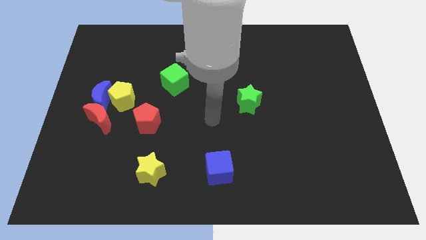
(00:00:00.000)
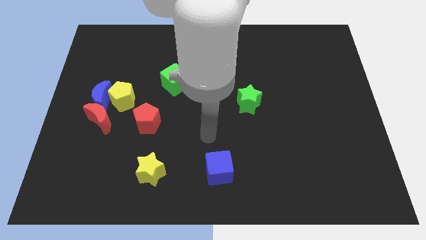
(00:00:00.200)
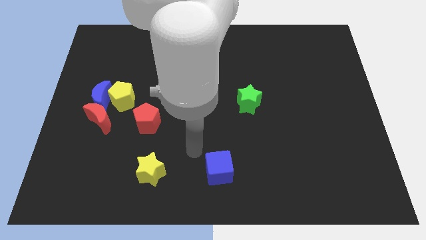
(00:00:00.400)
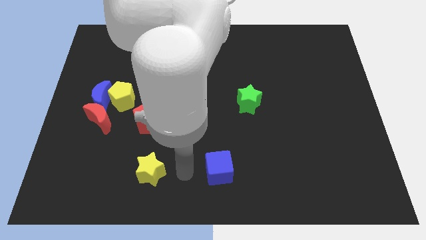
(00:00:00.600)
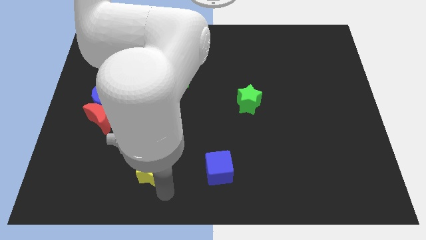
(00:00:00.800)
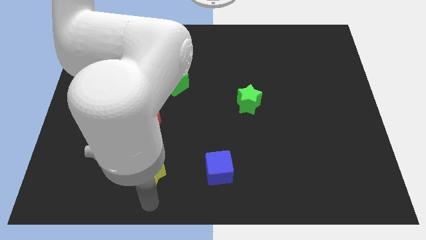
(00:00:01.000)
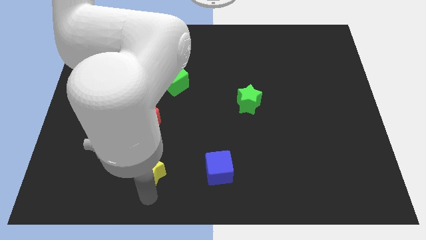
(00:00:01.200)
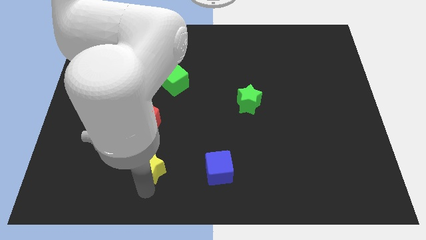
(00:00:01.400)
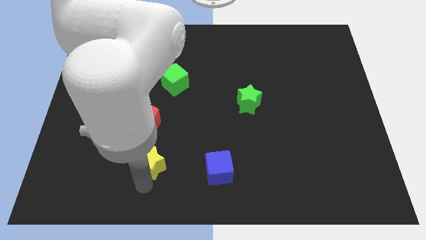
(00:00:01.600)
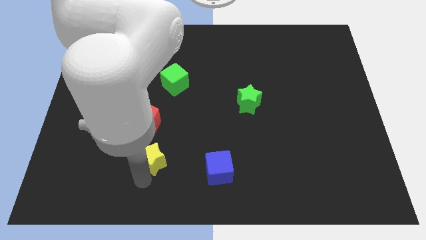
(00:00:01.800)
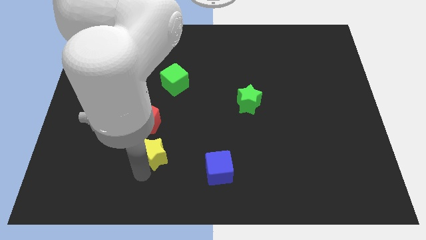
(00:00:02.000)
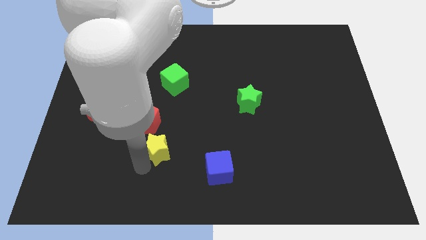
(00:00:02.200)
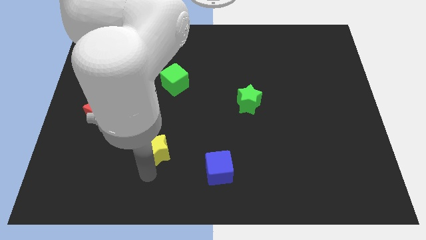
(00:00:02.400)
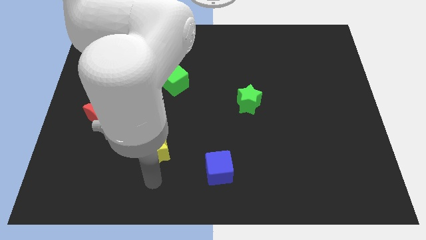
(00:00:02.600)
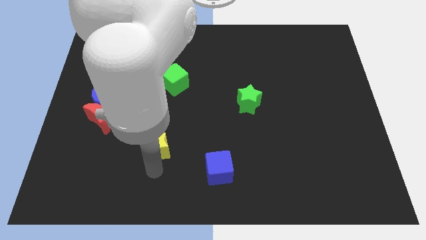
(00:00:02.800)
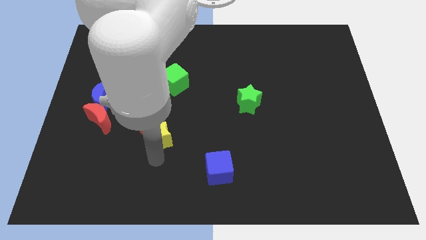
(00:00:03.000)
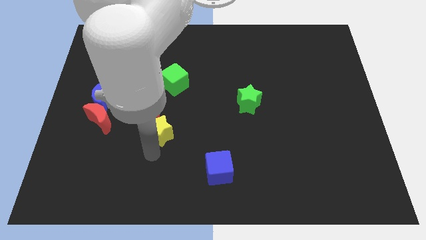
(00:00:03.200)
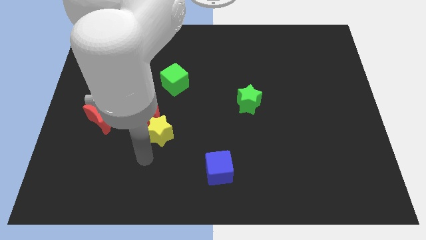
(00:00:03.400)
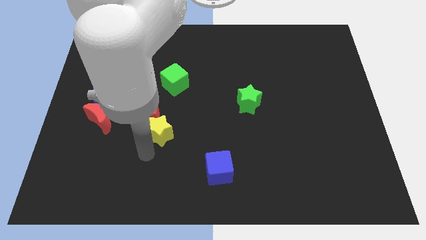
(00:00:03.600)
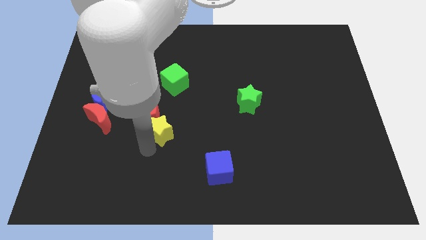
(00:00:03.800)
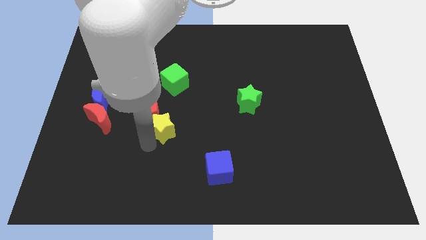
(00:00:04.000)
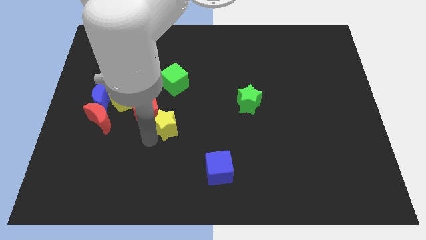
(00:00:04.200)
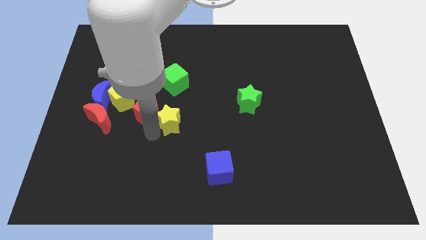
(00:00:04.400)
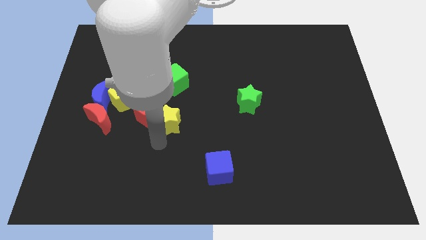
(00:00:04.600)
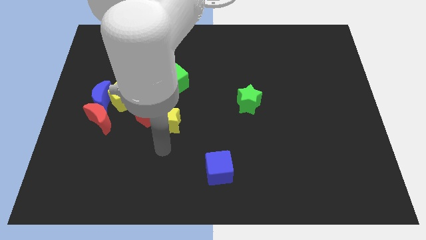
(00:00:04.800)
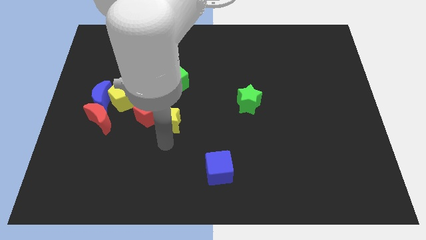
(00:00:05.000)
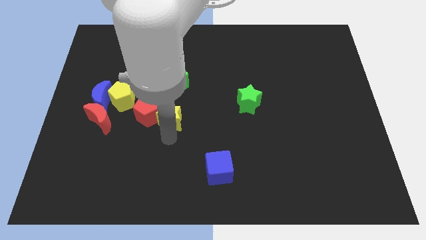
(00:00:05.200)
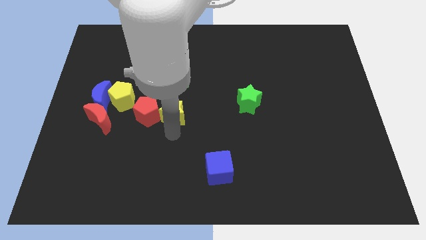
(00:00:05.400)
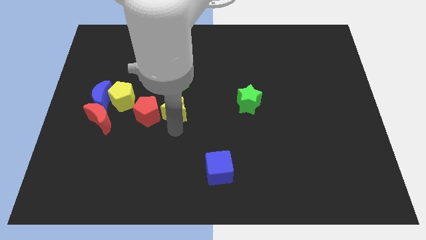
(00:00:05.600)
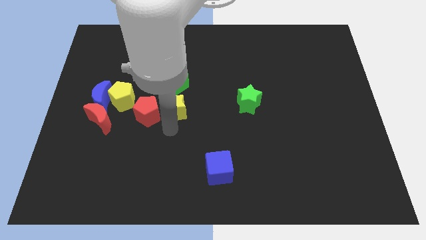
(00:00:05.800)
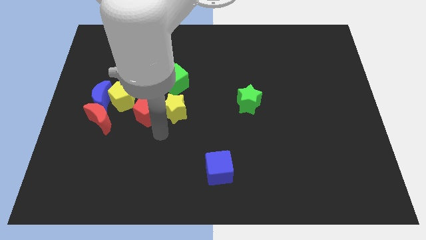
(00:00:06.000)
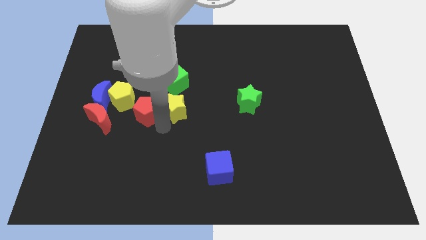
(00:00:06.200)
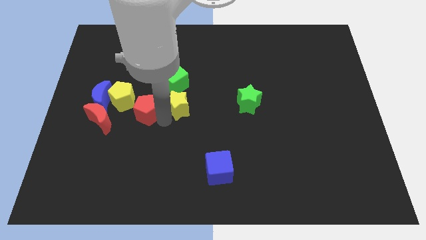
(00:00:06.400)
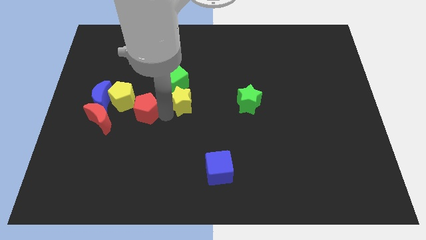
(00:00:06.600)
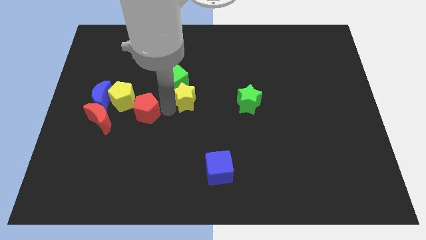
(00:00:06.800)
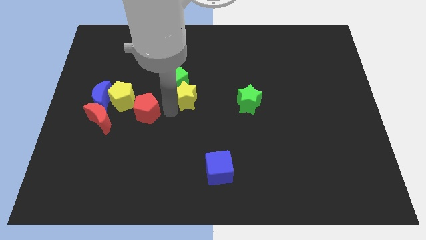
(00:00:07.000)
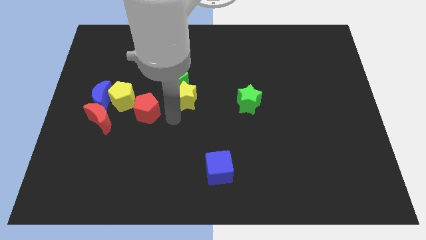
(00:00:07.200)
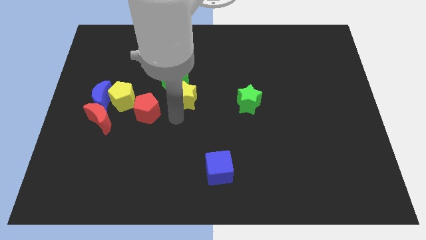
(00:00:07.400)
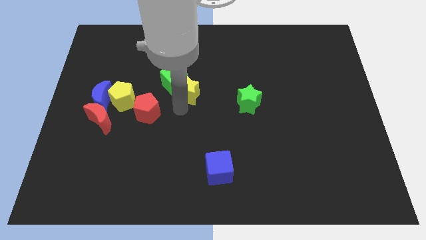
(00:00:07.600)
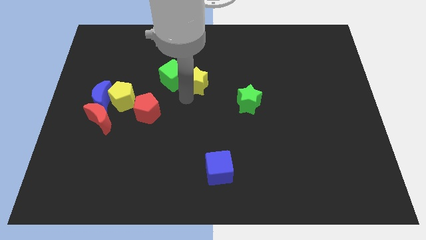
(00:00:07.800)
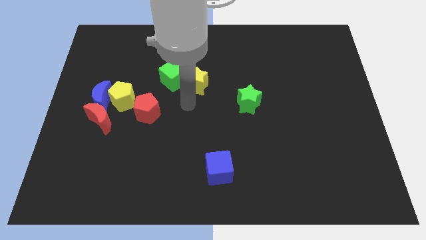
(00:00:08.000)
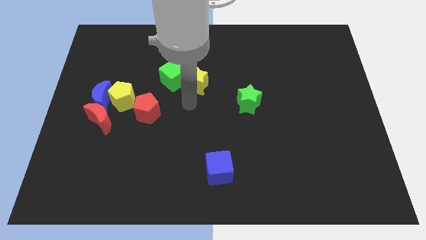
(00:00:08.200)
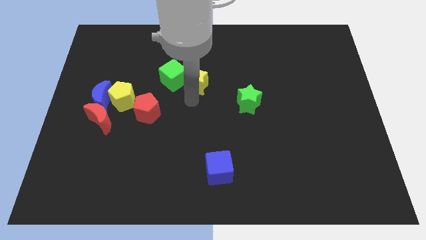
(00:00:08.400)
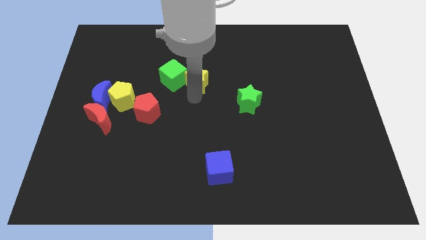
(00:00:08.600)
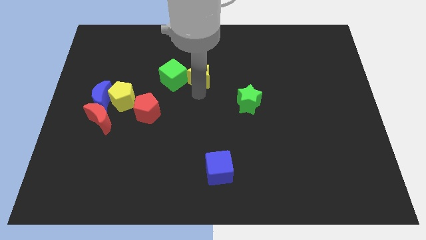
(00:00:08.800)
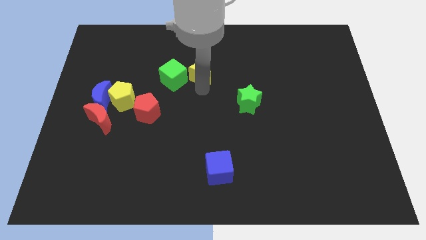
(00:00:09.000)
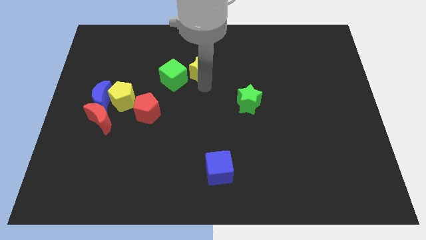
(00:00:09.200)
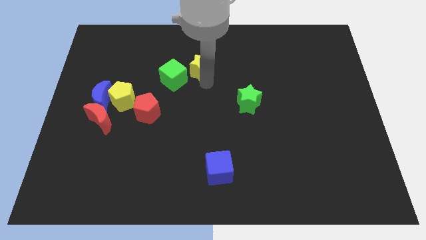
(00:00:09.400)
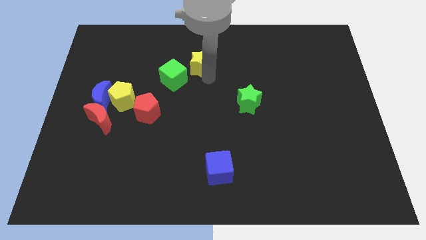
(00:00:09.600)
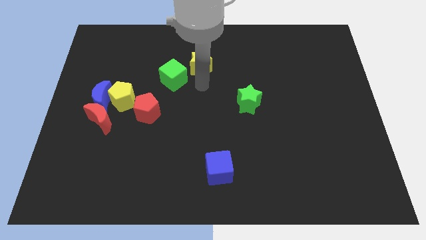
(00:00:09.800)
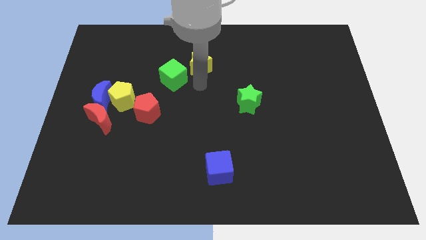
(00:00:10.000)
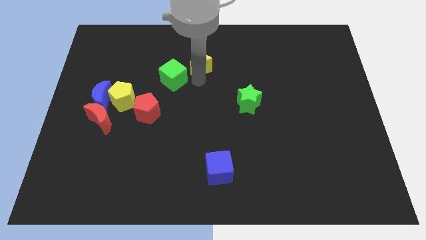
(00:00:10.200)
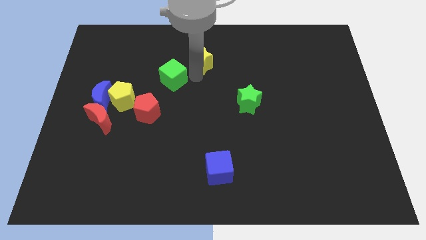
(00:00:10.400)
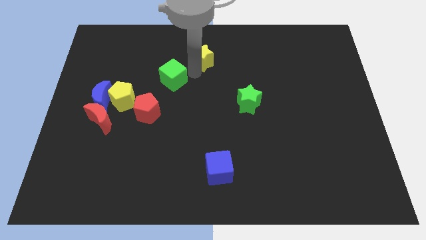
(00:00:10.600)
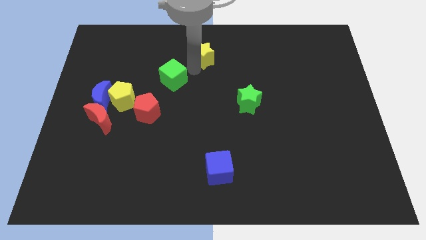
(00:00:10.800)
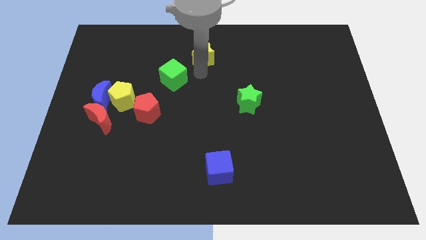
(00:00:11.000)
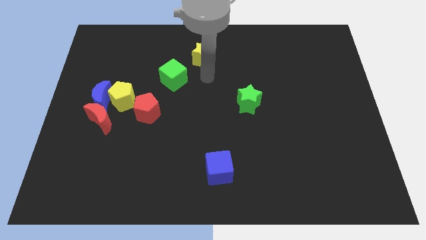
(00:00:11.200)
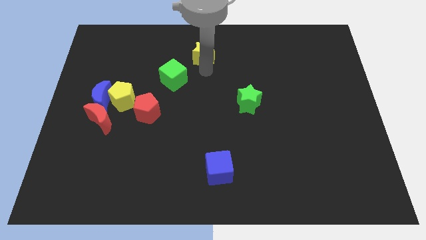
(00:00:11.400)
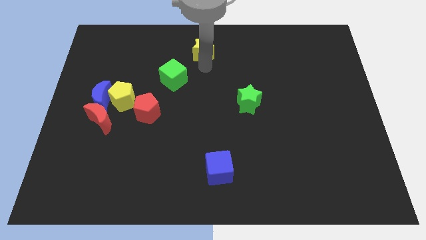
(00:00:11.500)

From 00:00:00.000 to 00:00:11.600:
push the yellow star to the towards your base

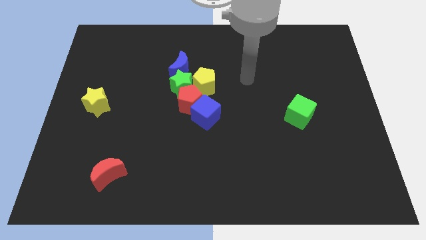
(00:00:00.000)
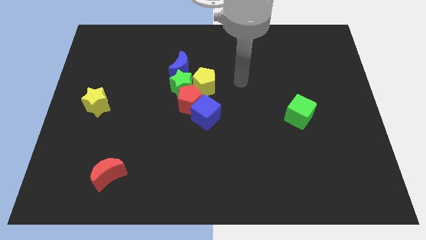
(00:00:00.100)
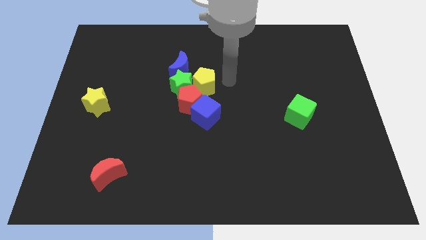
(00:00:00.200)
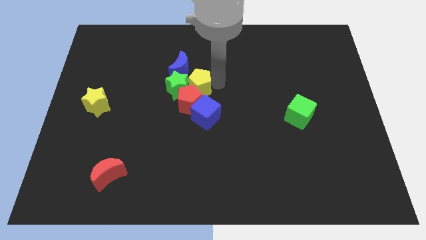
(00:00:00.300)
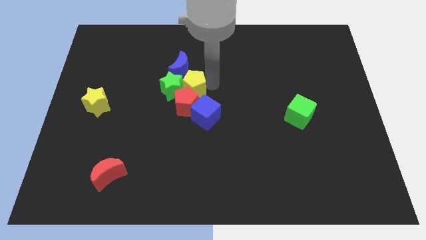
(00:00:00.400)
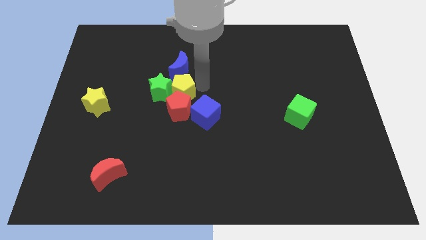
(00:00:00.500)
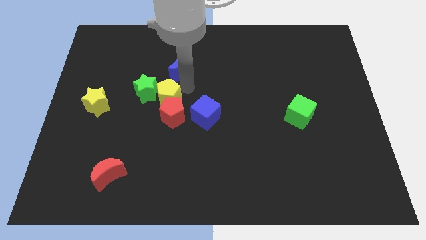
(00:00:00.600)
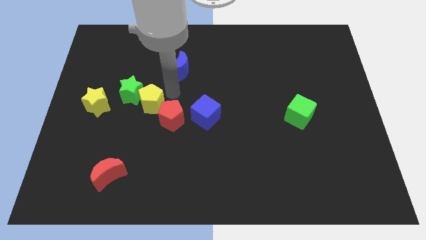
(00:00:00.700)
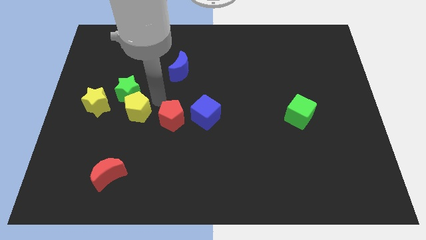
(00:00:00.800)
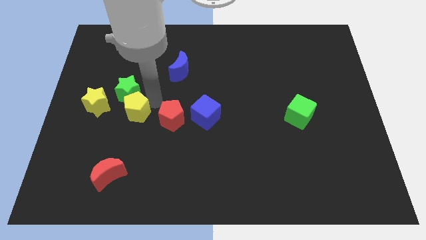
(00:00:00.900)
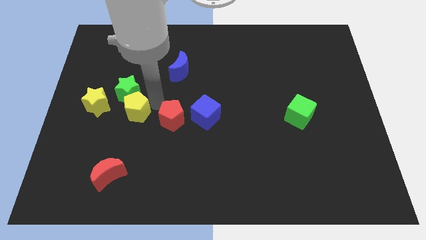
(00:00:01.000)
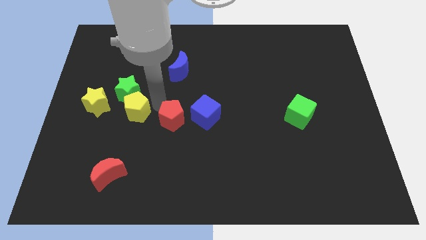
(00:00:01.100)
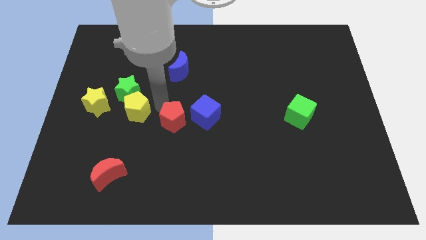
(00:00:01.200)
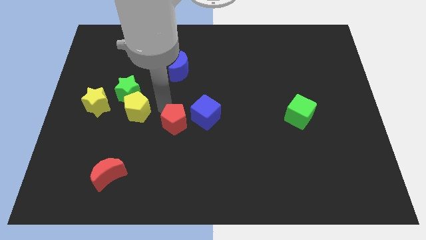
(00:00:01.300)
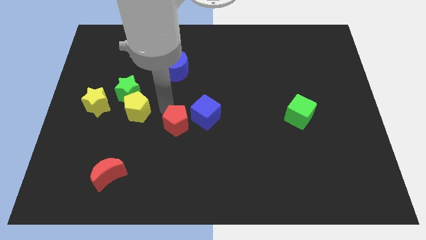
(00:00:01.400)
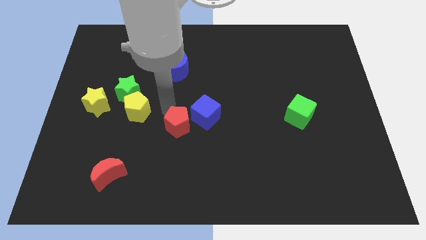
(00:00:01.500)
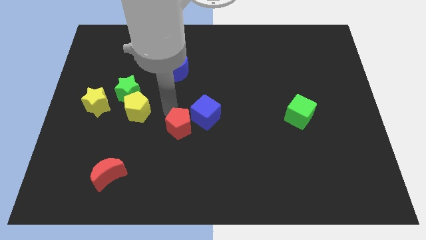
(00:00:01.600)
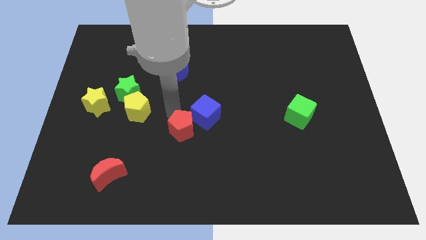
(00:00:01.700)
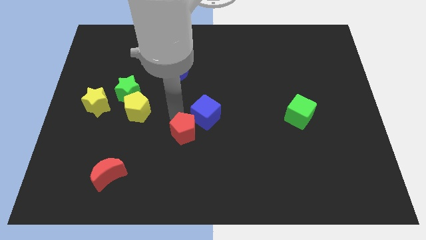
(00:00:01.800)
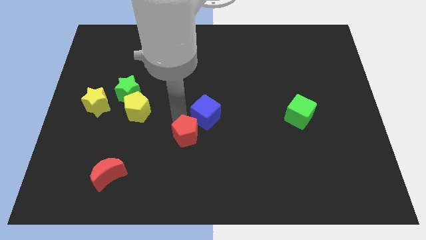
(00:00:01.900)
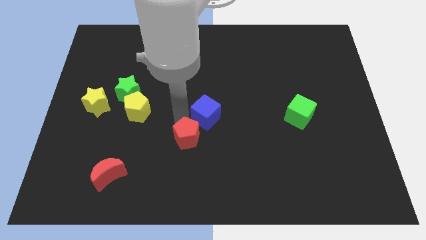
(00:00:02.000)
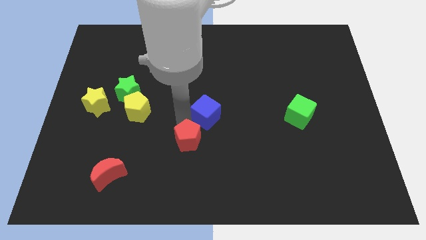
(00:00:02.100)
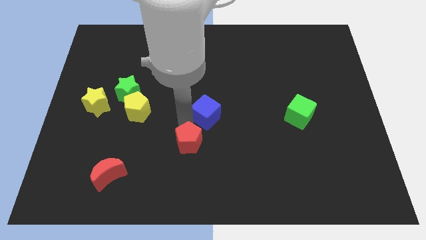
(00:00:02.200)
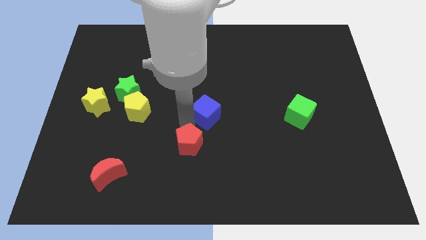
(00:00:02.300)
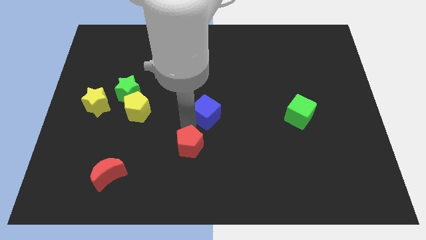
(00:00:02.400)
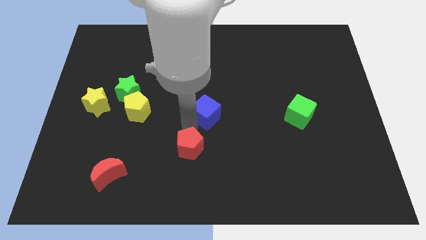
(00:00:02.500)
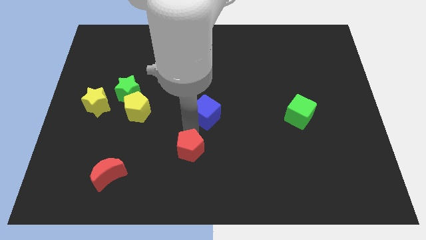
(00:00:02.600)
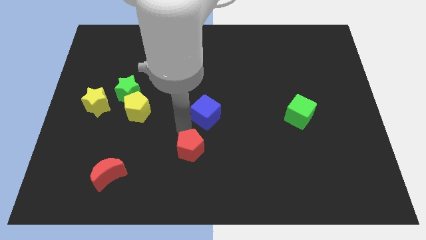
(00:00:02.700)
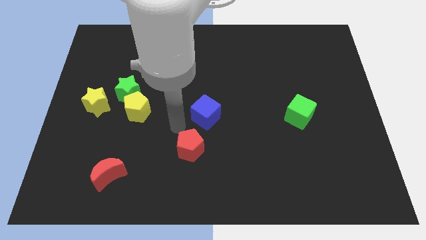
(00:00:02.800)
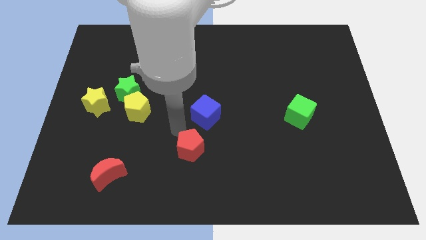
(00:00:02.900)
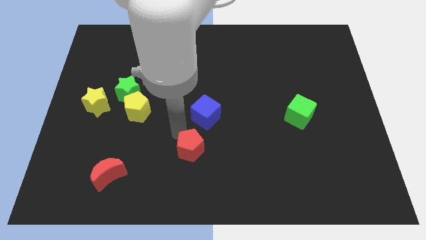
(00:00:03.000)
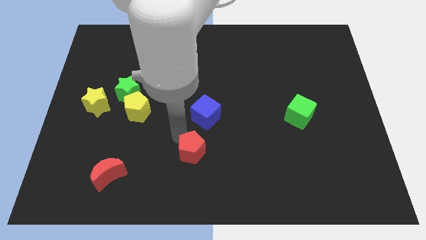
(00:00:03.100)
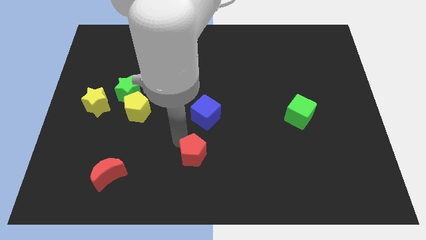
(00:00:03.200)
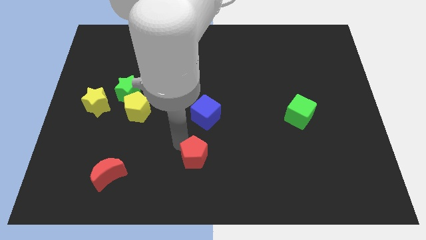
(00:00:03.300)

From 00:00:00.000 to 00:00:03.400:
move the red pentagon to the bottom side
